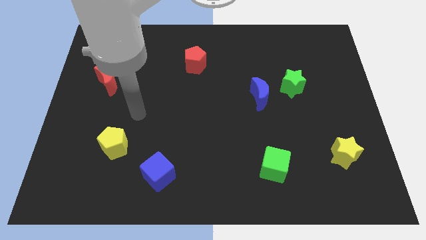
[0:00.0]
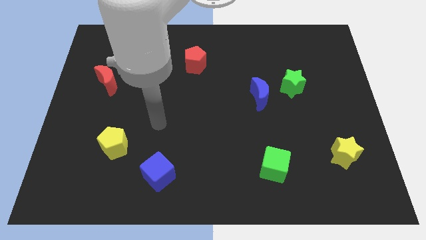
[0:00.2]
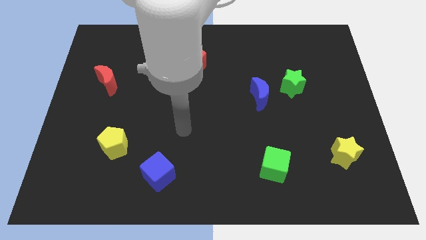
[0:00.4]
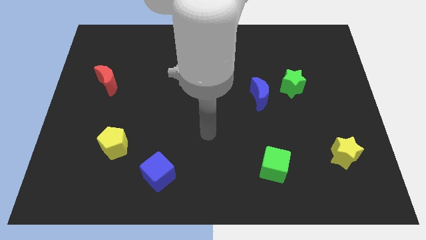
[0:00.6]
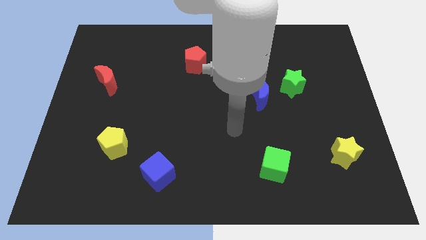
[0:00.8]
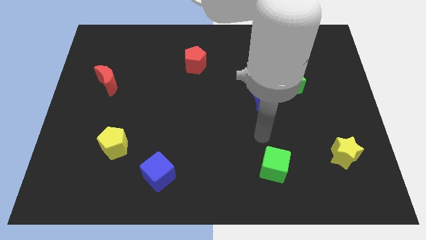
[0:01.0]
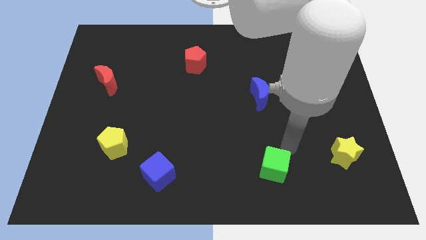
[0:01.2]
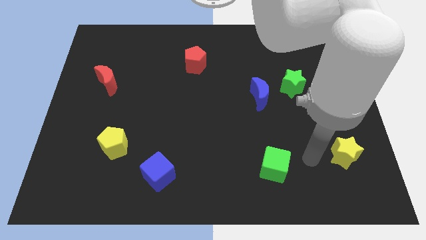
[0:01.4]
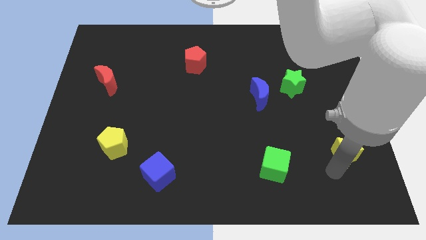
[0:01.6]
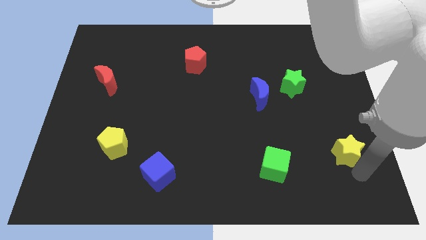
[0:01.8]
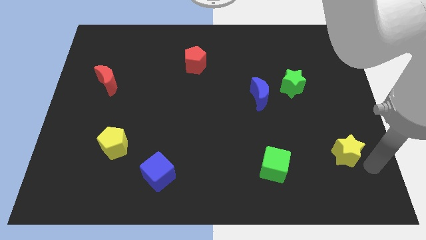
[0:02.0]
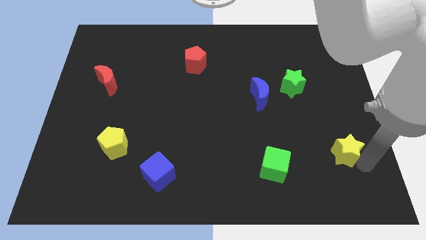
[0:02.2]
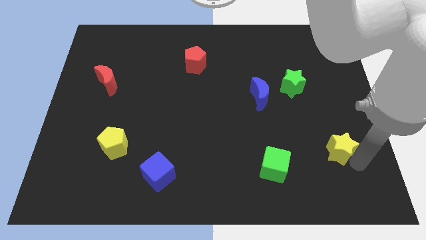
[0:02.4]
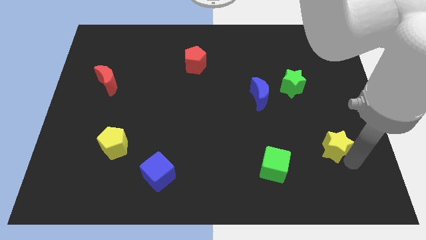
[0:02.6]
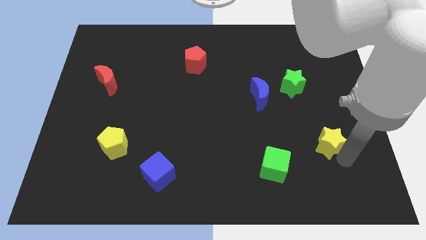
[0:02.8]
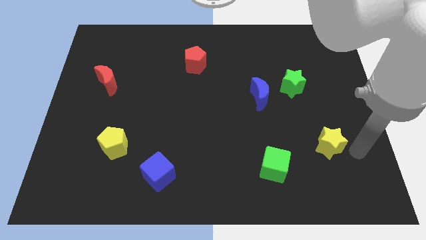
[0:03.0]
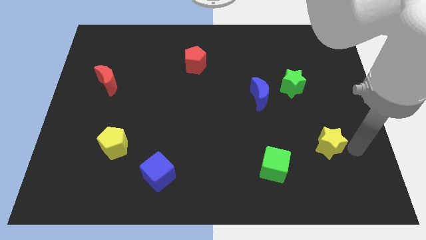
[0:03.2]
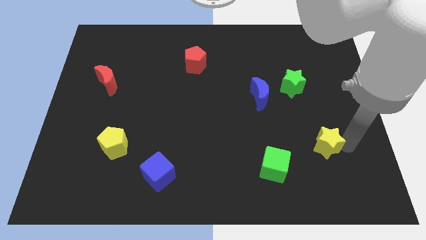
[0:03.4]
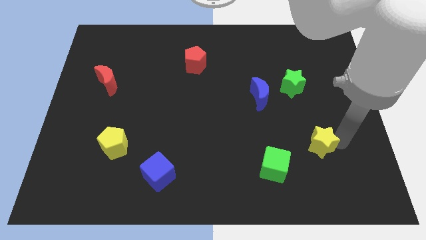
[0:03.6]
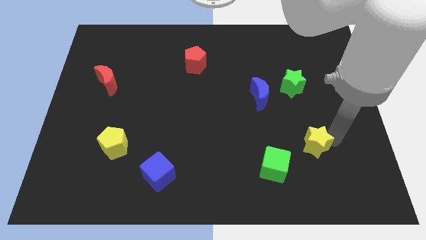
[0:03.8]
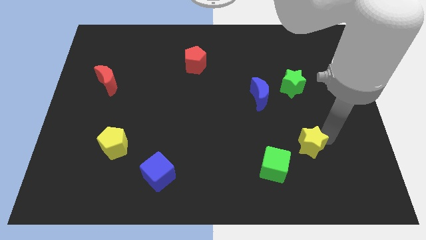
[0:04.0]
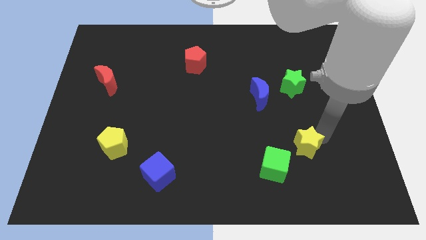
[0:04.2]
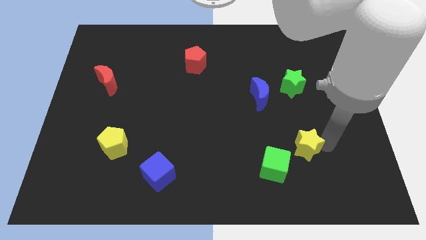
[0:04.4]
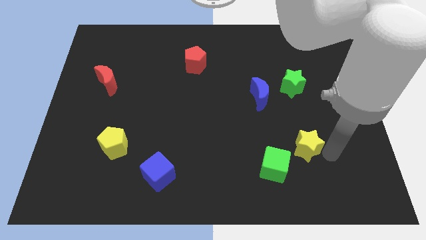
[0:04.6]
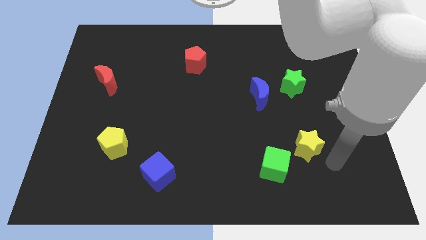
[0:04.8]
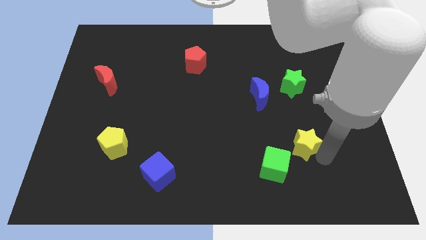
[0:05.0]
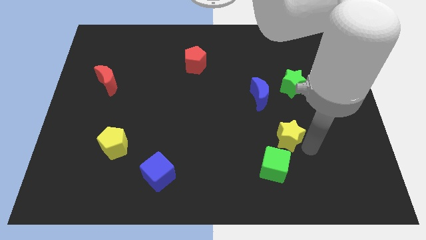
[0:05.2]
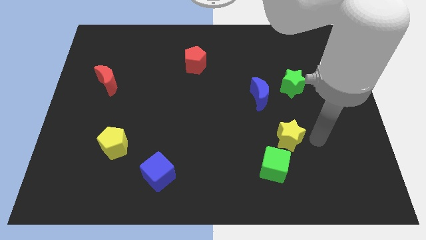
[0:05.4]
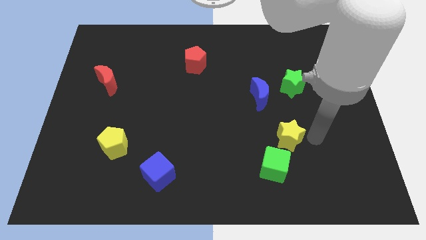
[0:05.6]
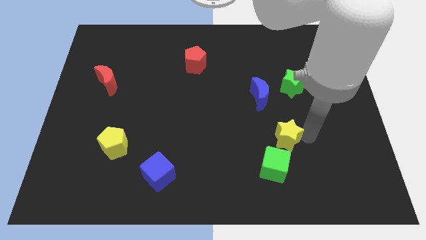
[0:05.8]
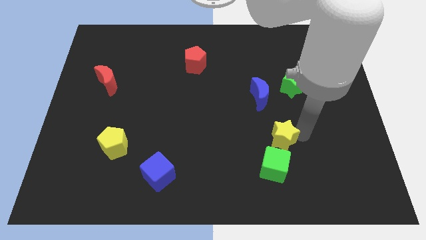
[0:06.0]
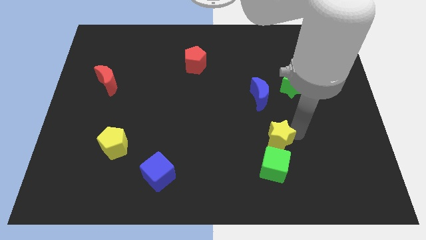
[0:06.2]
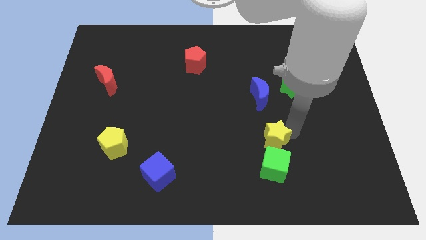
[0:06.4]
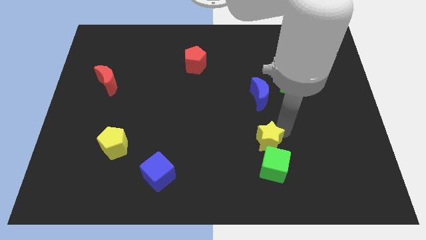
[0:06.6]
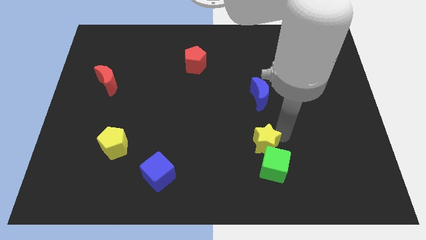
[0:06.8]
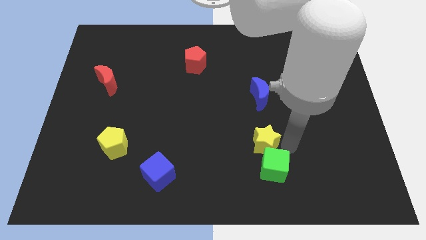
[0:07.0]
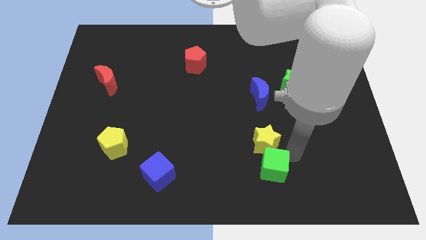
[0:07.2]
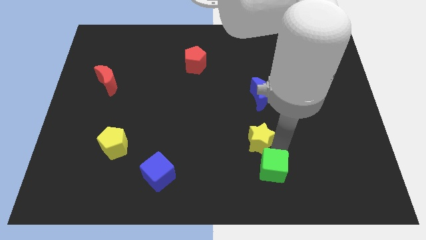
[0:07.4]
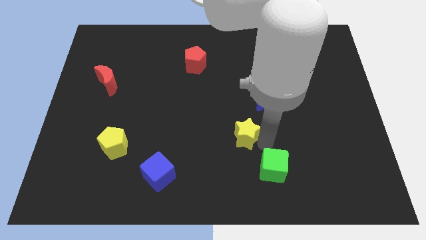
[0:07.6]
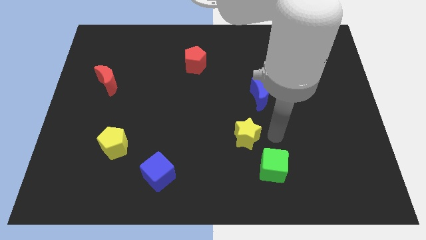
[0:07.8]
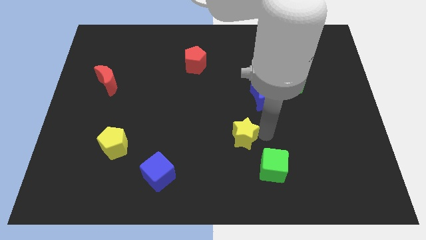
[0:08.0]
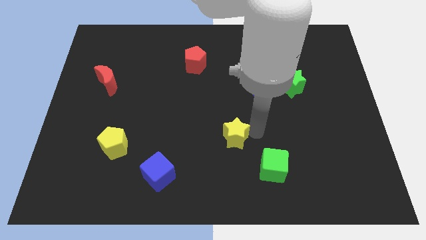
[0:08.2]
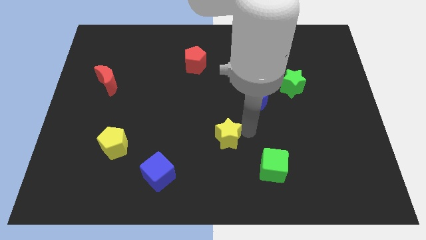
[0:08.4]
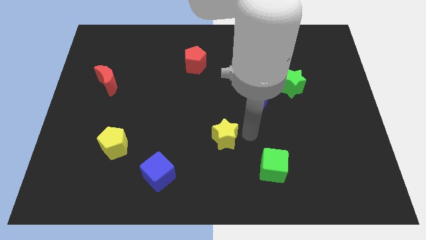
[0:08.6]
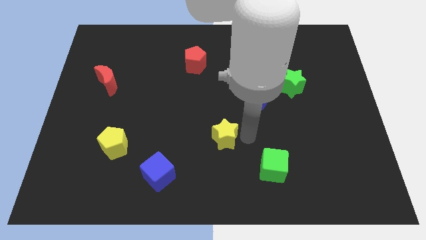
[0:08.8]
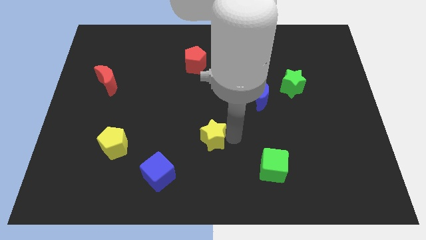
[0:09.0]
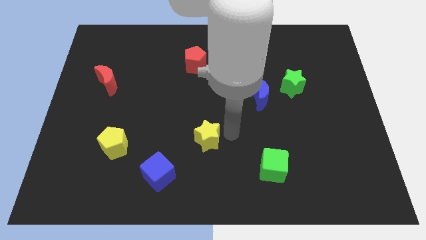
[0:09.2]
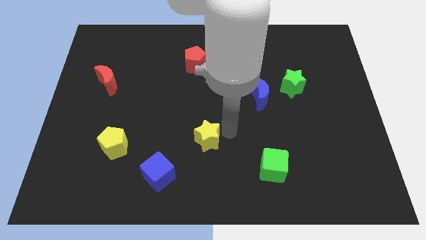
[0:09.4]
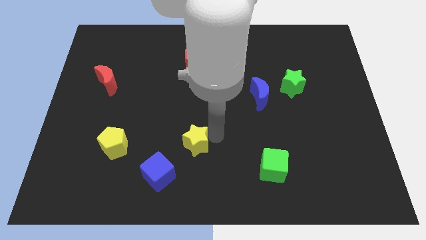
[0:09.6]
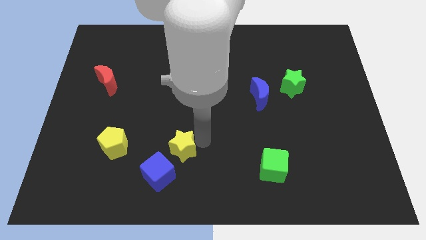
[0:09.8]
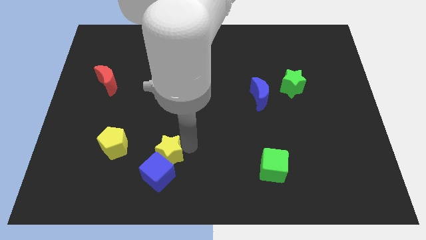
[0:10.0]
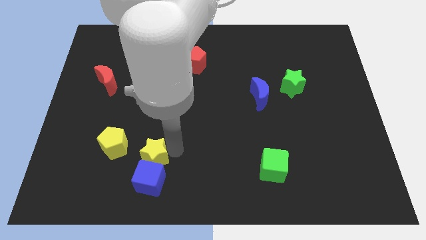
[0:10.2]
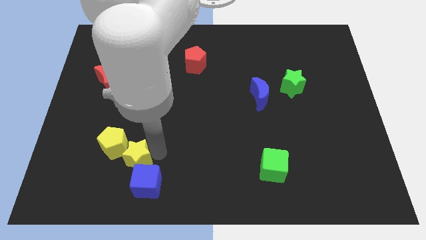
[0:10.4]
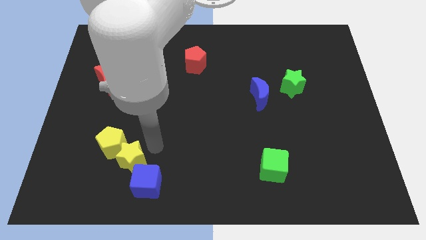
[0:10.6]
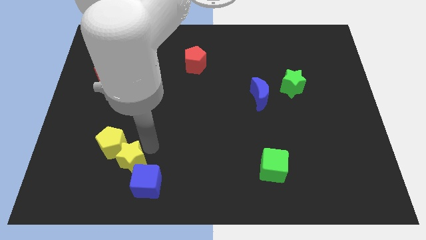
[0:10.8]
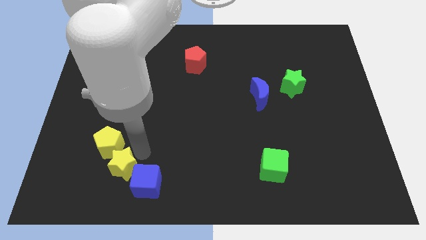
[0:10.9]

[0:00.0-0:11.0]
slide the yellow star just left of the blue cube

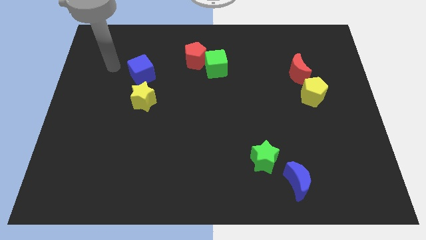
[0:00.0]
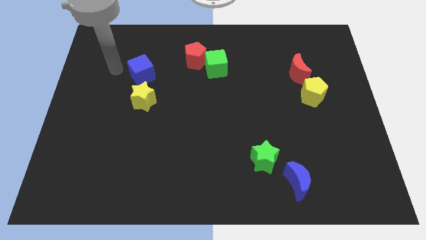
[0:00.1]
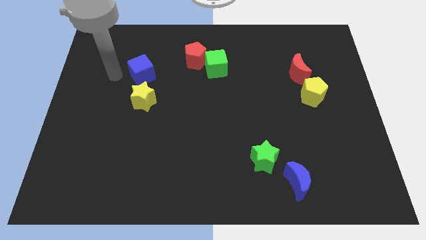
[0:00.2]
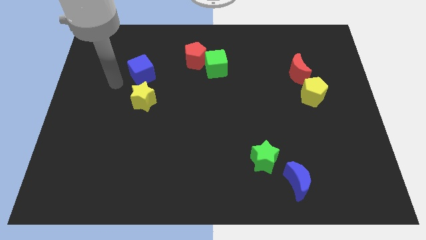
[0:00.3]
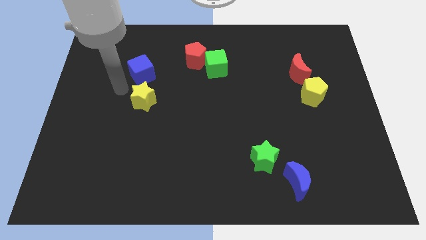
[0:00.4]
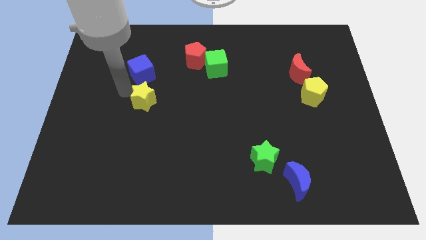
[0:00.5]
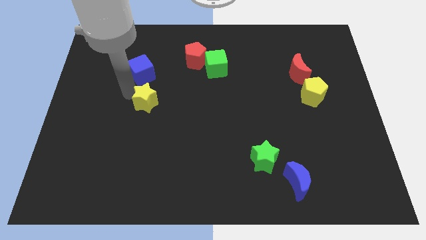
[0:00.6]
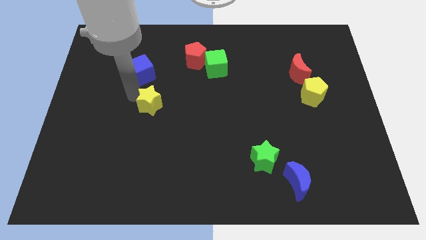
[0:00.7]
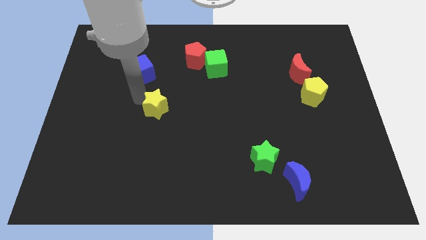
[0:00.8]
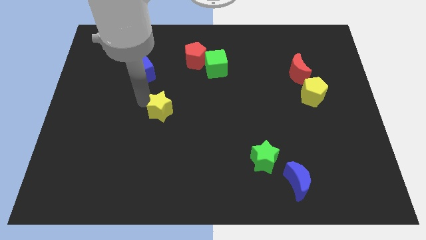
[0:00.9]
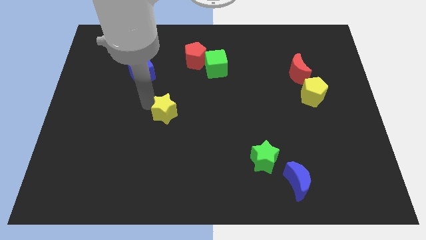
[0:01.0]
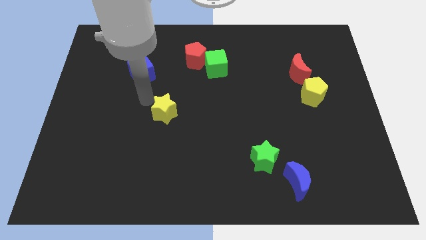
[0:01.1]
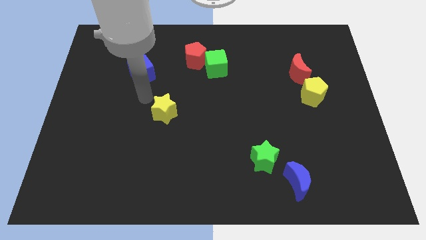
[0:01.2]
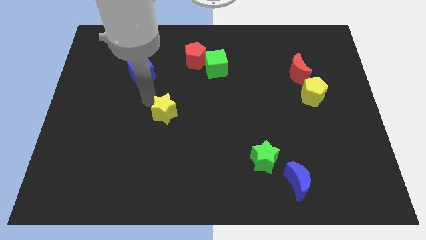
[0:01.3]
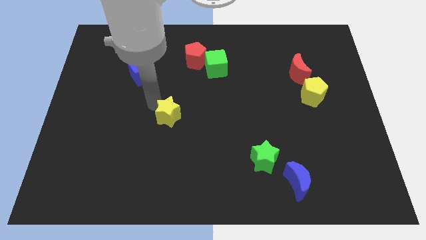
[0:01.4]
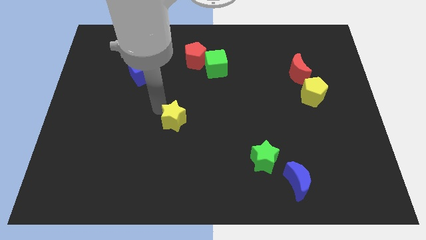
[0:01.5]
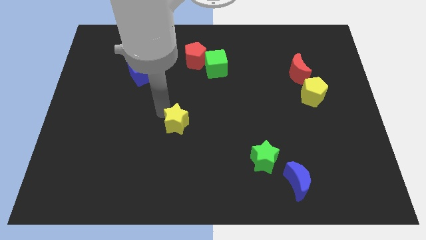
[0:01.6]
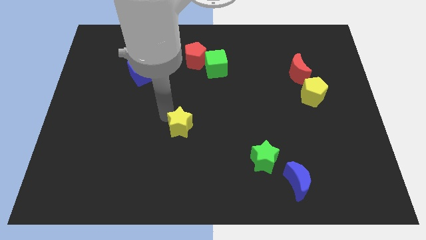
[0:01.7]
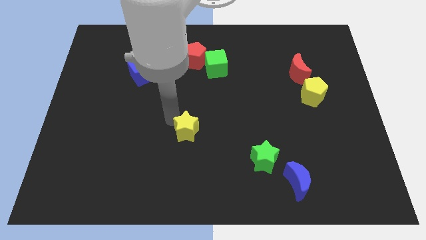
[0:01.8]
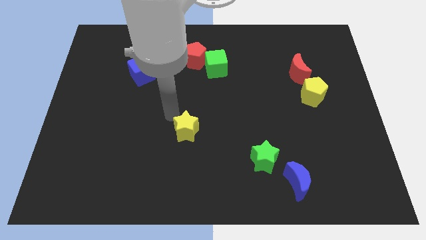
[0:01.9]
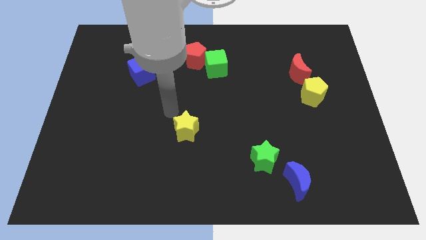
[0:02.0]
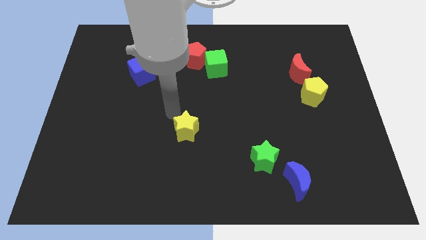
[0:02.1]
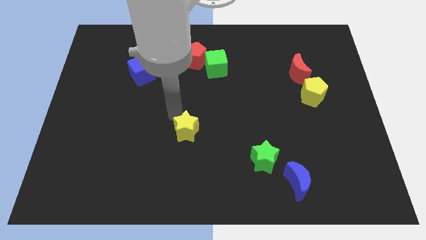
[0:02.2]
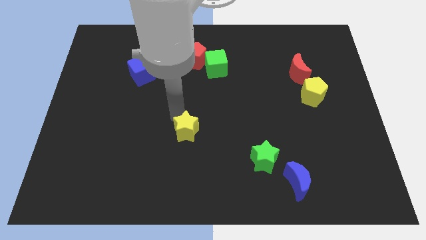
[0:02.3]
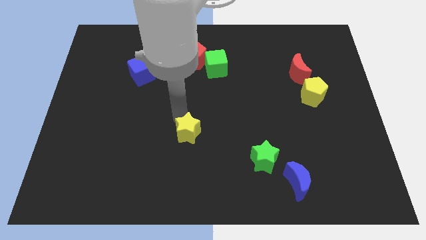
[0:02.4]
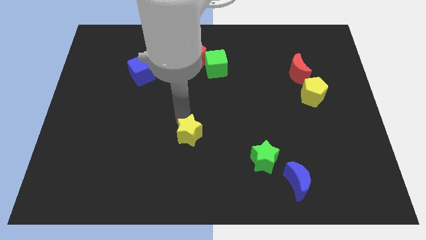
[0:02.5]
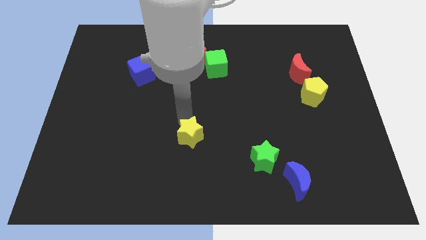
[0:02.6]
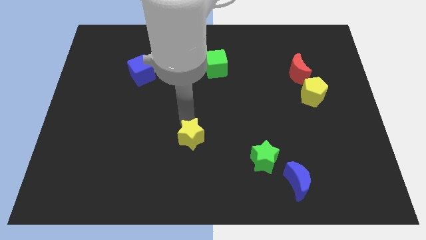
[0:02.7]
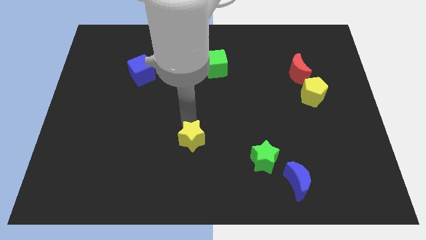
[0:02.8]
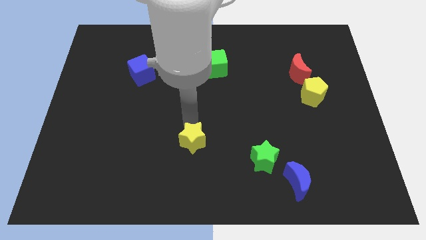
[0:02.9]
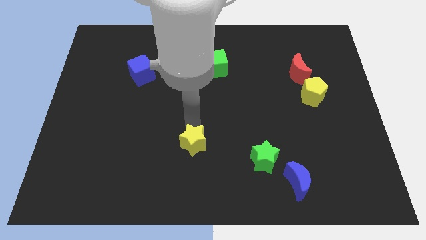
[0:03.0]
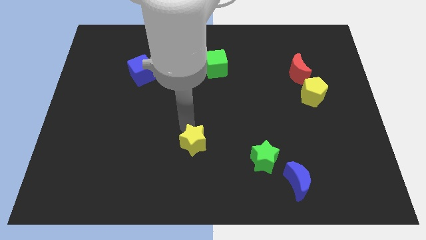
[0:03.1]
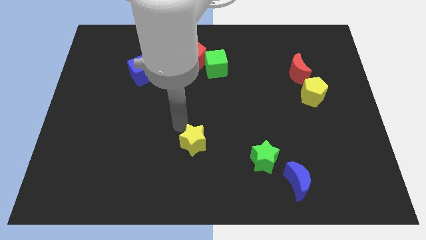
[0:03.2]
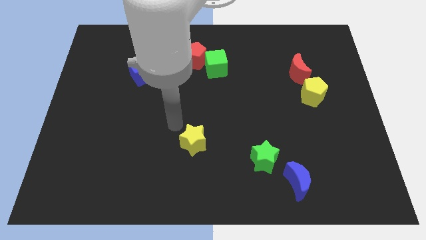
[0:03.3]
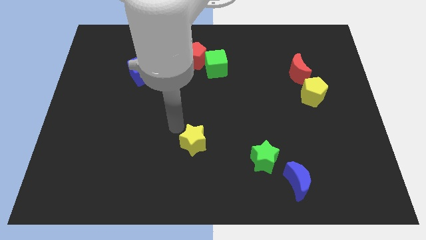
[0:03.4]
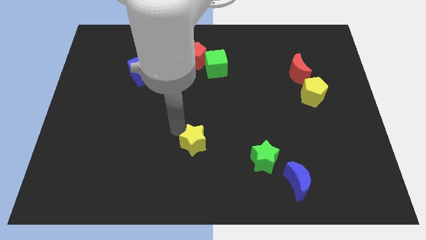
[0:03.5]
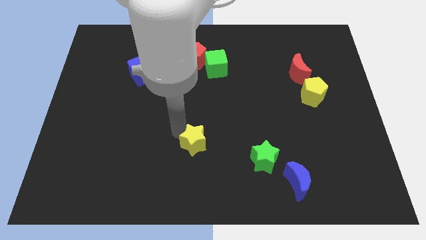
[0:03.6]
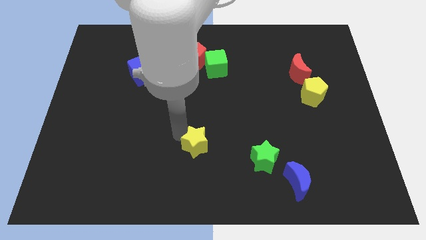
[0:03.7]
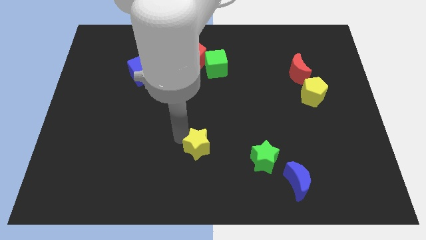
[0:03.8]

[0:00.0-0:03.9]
put the yellow star to the left side of the green star
